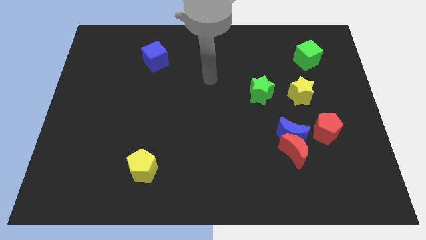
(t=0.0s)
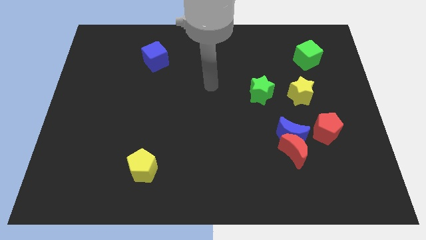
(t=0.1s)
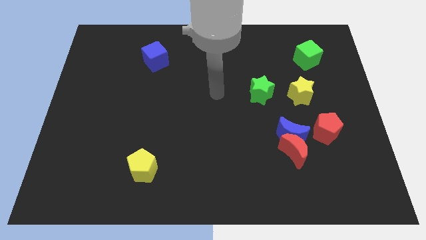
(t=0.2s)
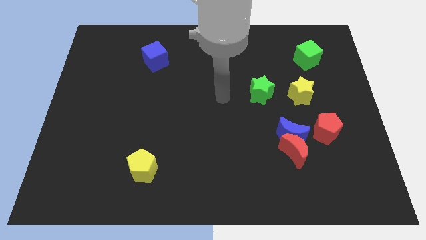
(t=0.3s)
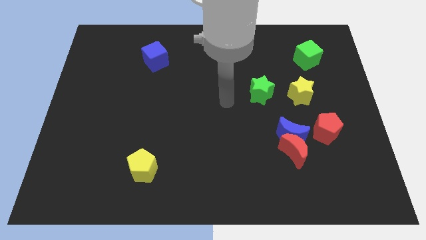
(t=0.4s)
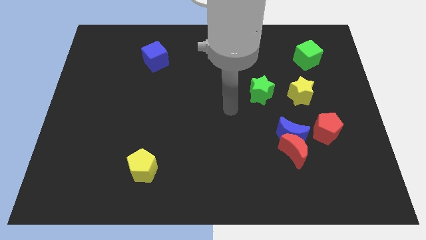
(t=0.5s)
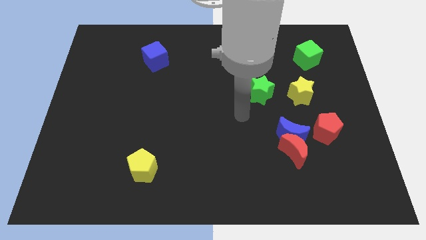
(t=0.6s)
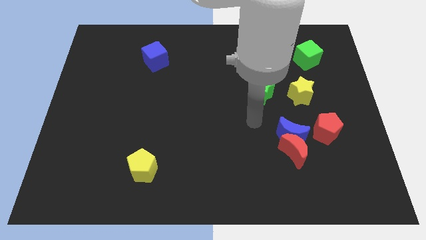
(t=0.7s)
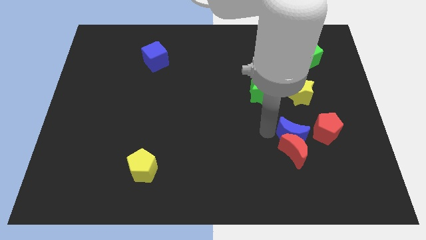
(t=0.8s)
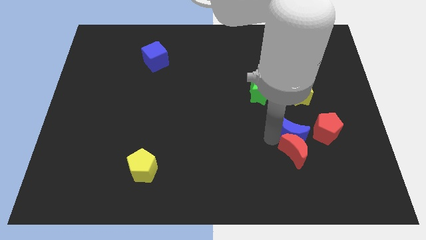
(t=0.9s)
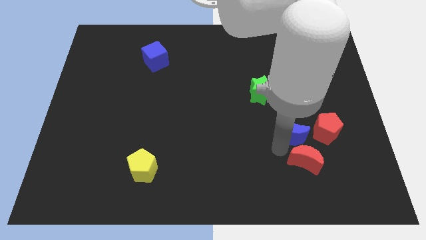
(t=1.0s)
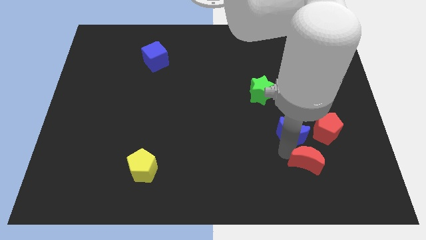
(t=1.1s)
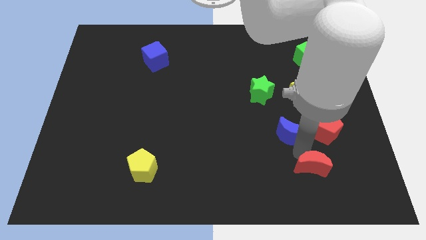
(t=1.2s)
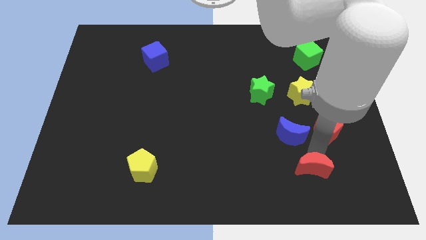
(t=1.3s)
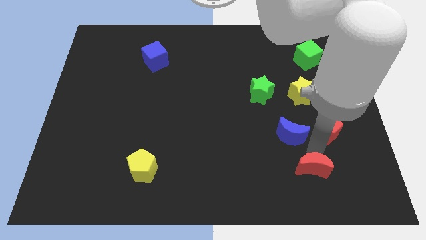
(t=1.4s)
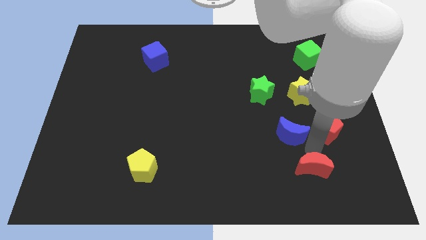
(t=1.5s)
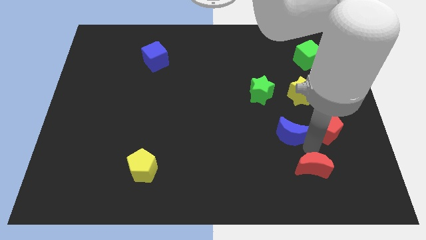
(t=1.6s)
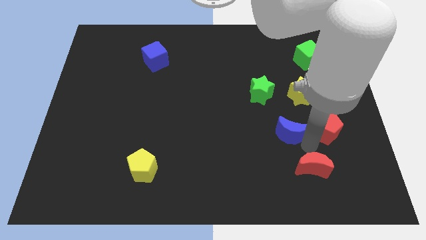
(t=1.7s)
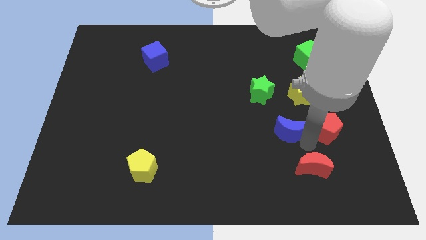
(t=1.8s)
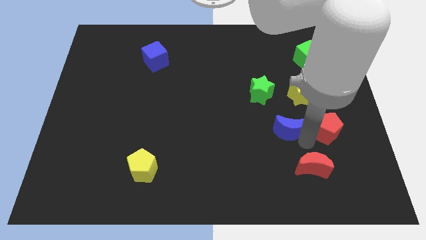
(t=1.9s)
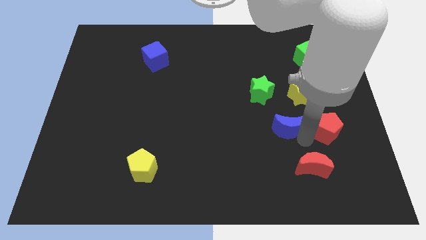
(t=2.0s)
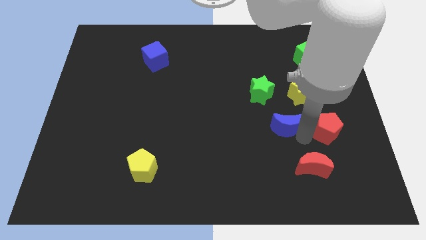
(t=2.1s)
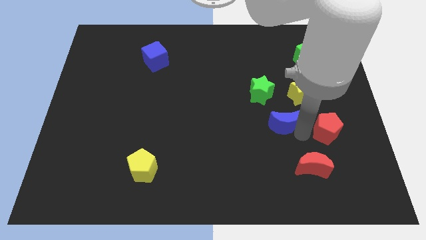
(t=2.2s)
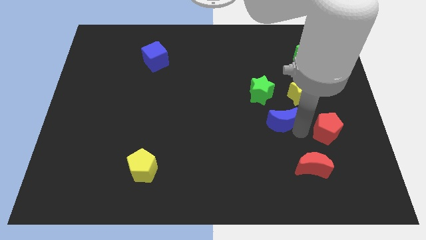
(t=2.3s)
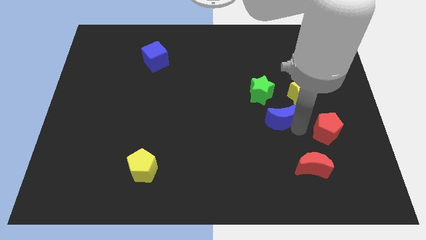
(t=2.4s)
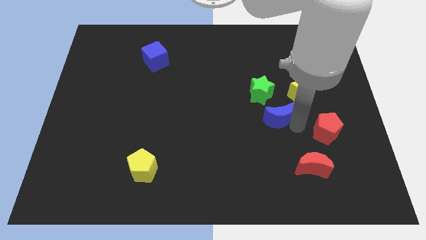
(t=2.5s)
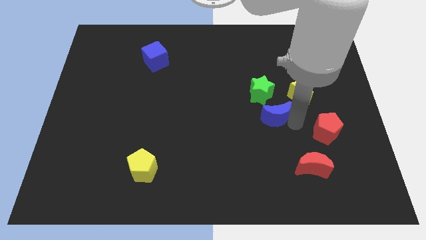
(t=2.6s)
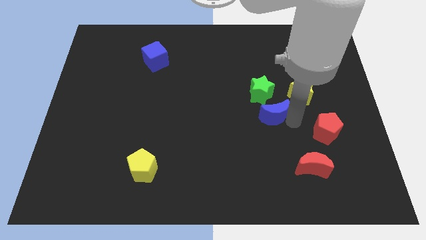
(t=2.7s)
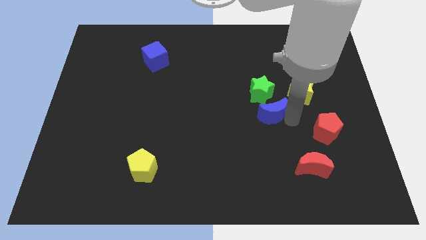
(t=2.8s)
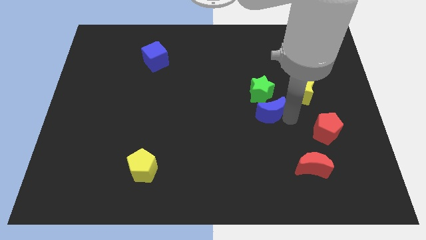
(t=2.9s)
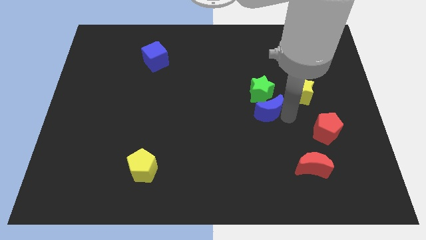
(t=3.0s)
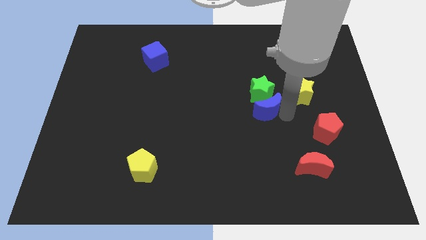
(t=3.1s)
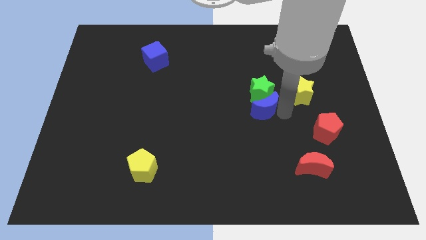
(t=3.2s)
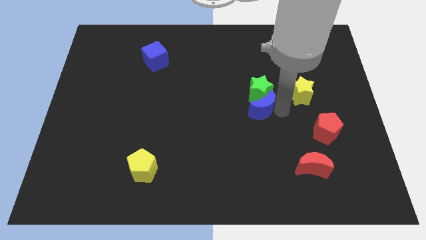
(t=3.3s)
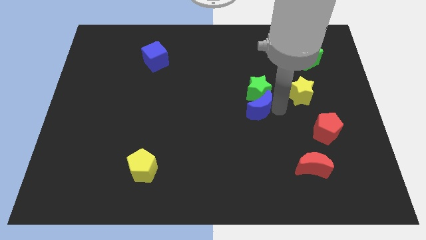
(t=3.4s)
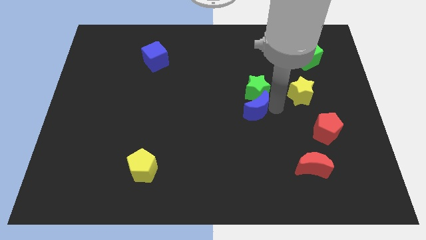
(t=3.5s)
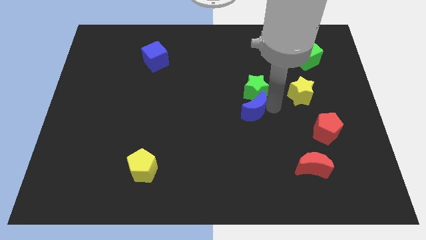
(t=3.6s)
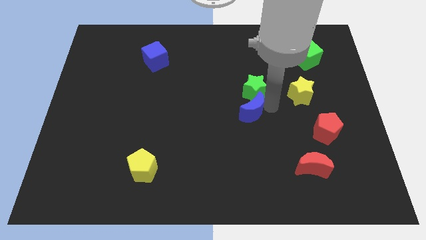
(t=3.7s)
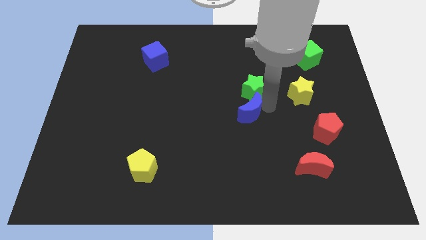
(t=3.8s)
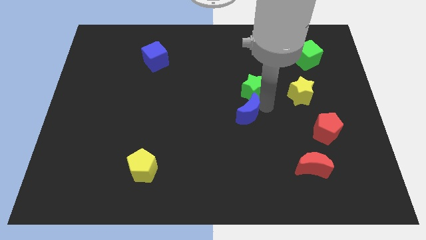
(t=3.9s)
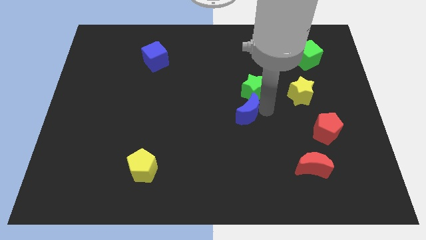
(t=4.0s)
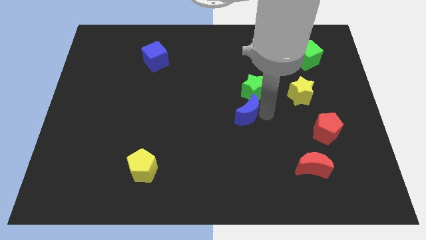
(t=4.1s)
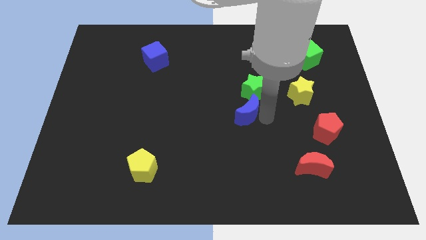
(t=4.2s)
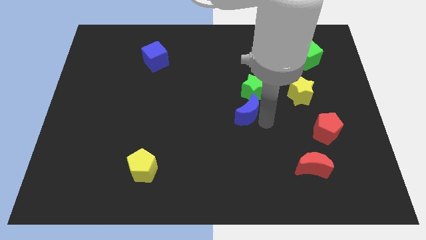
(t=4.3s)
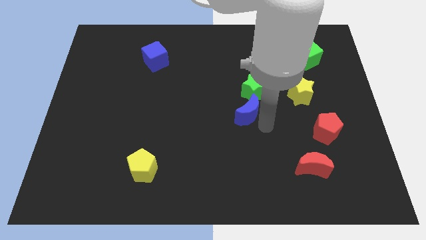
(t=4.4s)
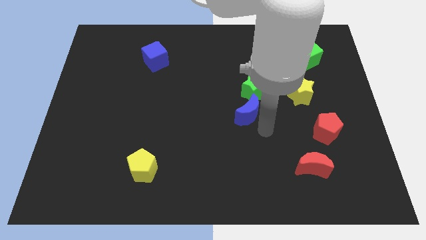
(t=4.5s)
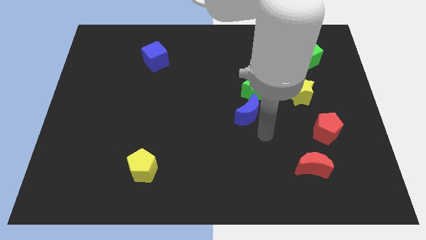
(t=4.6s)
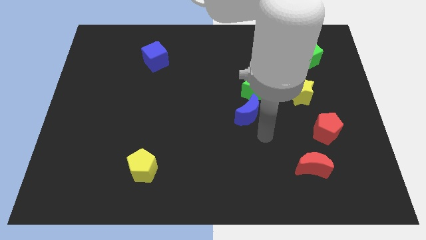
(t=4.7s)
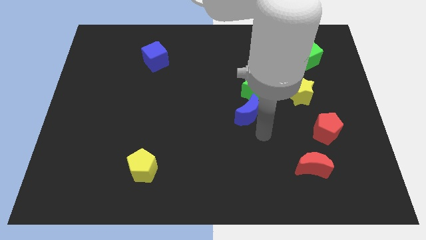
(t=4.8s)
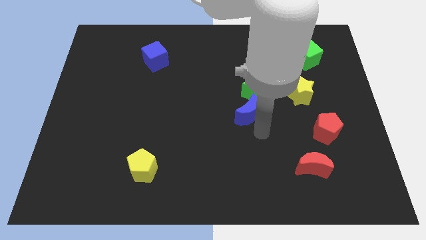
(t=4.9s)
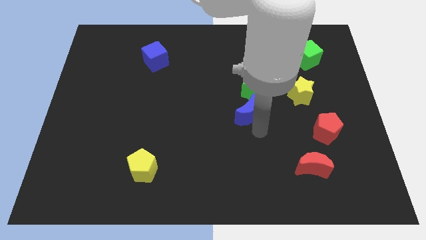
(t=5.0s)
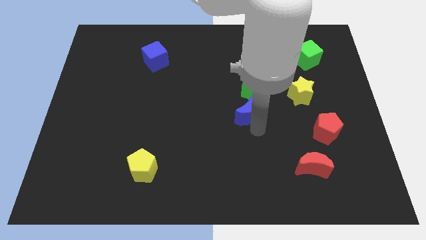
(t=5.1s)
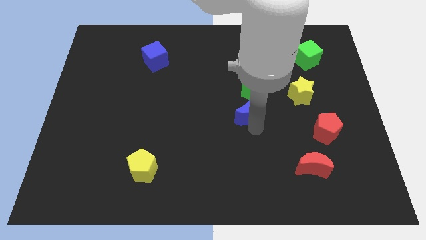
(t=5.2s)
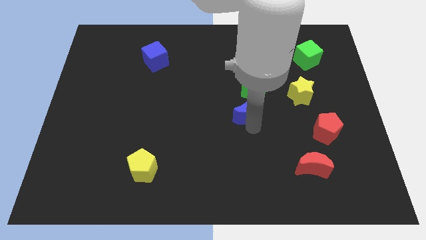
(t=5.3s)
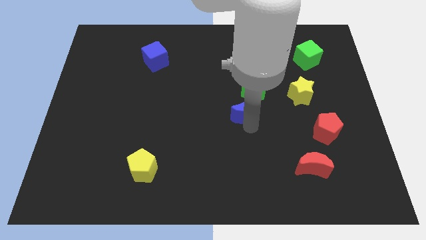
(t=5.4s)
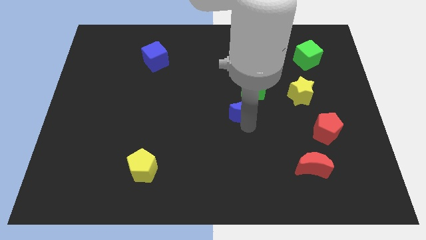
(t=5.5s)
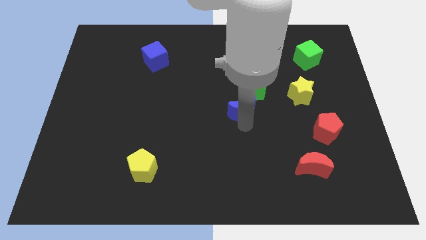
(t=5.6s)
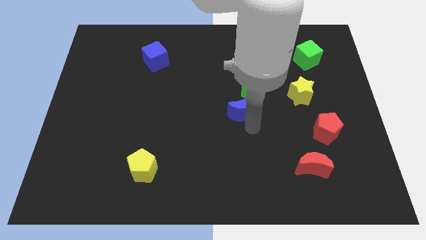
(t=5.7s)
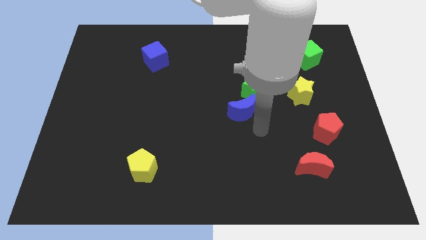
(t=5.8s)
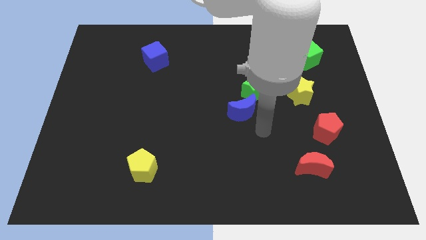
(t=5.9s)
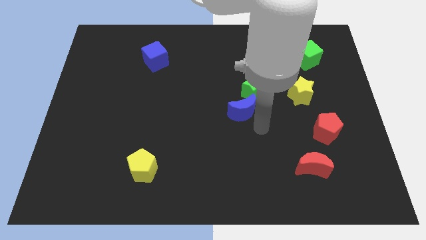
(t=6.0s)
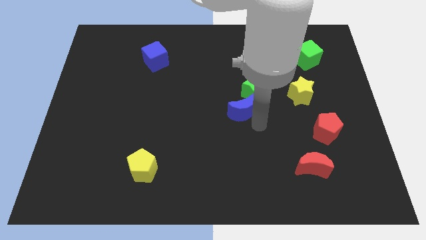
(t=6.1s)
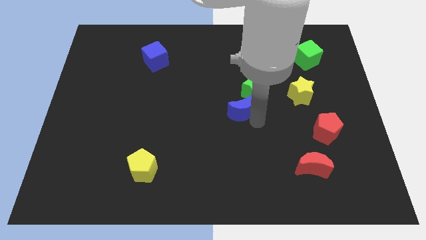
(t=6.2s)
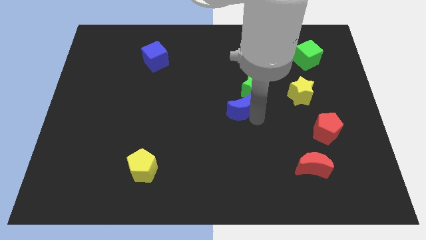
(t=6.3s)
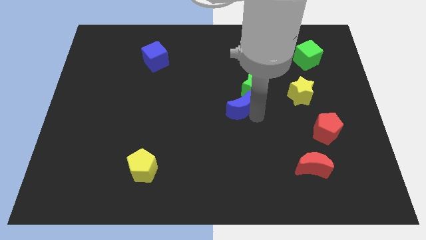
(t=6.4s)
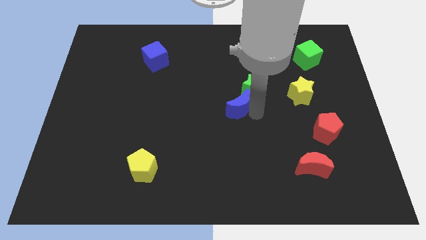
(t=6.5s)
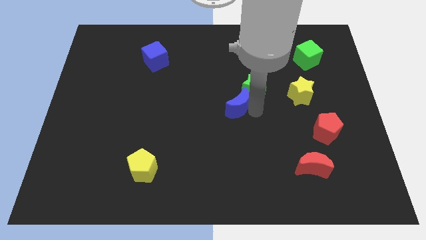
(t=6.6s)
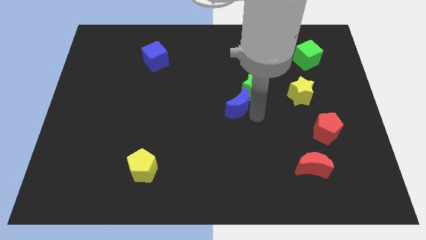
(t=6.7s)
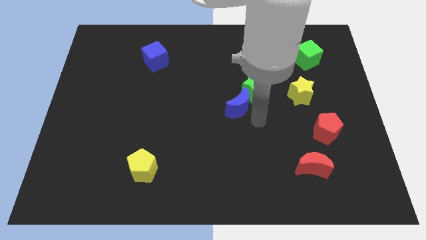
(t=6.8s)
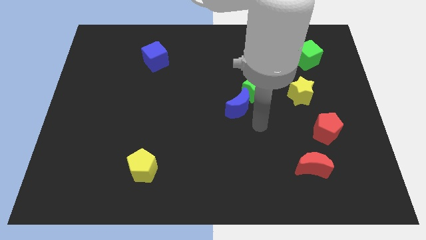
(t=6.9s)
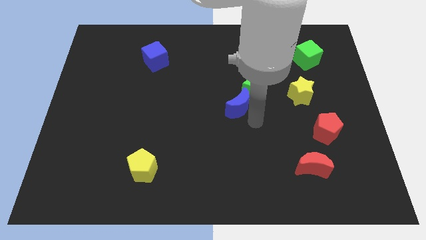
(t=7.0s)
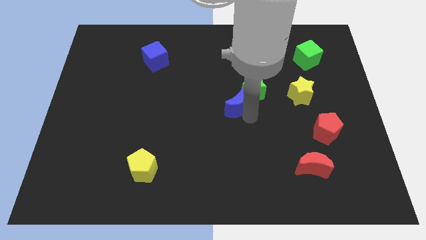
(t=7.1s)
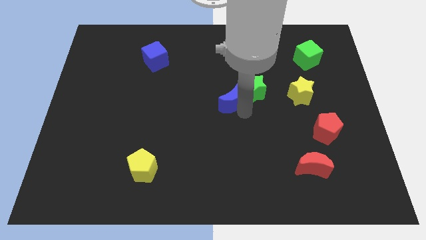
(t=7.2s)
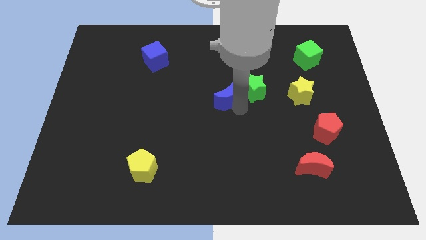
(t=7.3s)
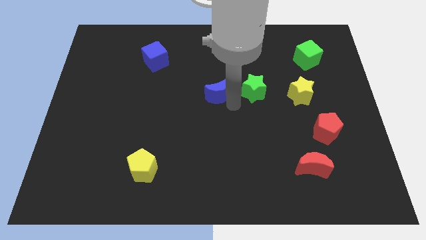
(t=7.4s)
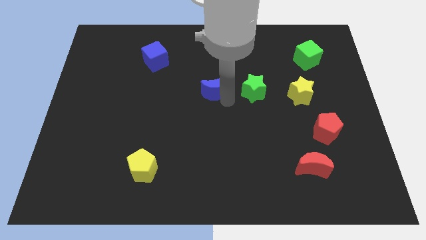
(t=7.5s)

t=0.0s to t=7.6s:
push the blue moon upwards and left

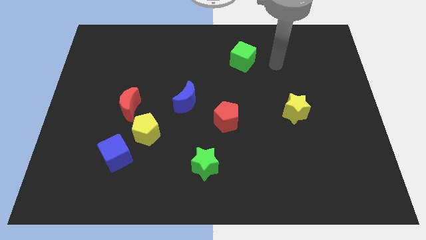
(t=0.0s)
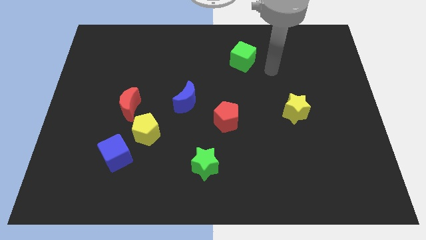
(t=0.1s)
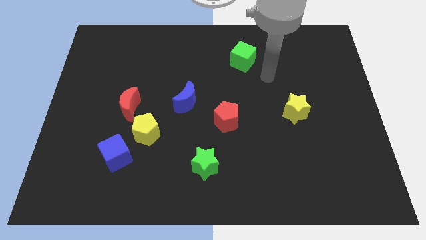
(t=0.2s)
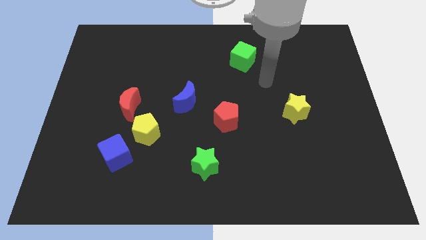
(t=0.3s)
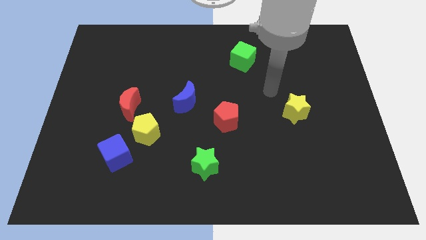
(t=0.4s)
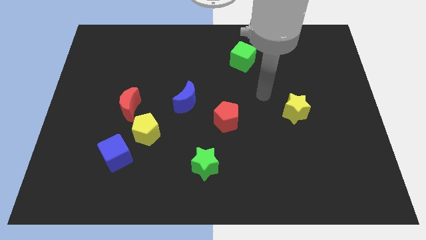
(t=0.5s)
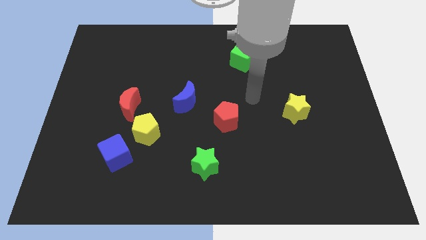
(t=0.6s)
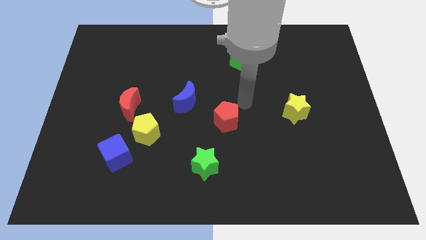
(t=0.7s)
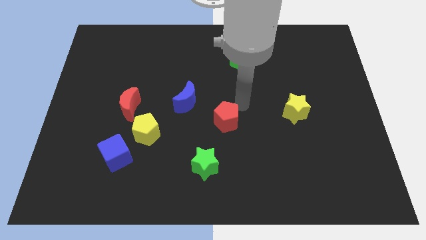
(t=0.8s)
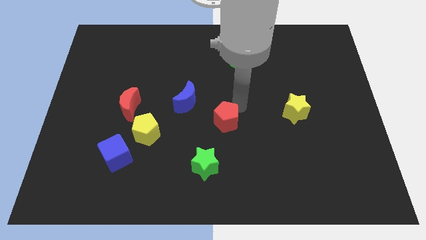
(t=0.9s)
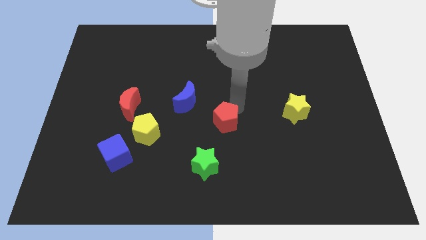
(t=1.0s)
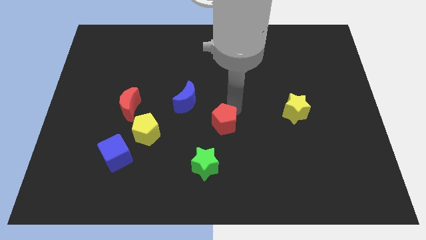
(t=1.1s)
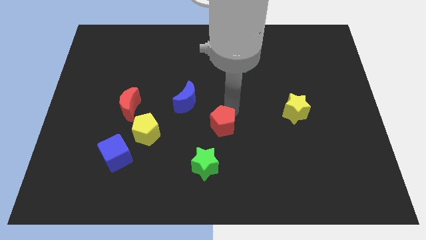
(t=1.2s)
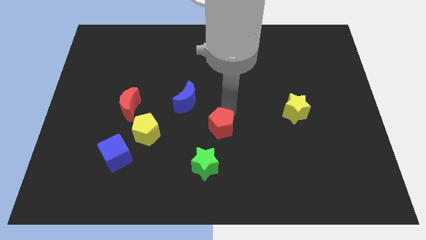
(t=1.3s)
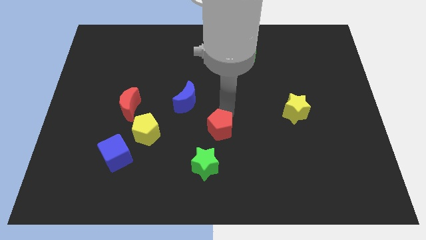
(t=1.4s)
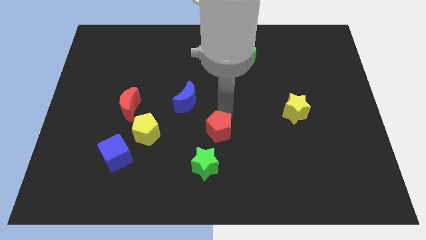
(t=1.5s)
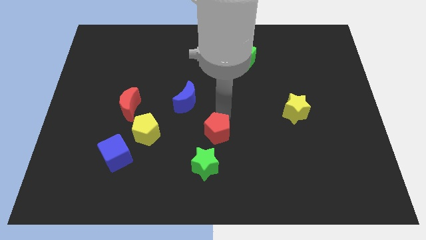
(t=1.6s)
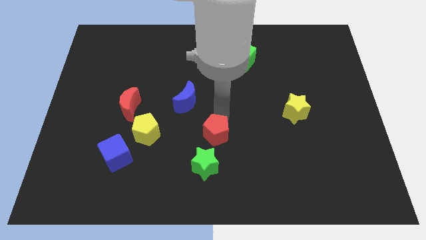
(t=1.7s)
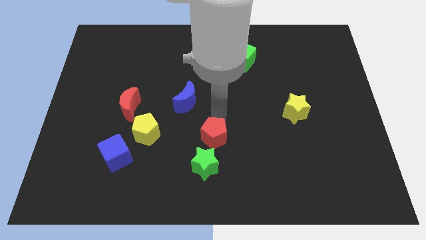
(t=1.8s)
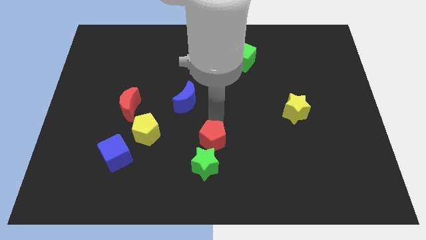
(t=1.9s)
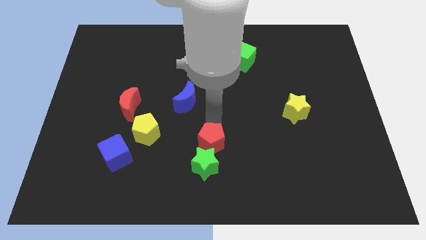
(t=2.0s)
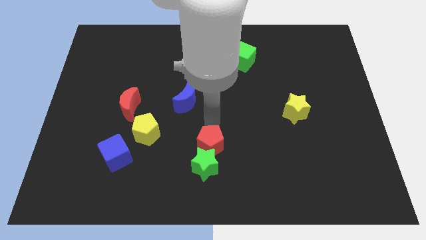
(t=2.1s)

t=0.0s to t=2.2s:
slightly push the red pentagon downwards and then to the left
